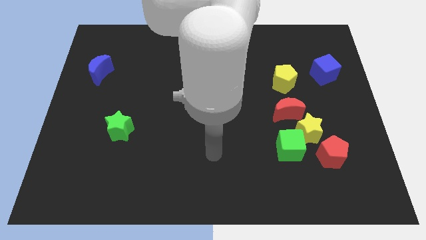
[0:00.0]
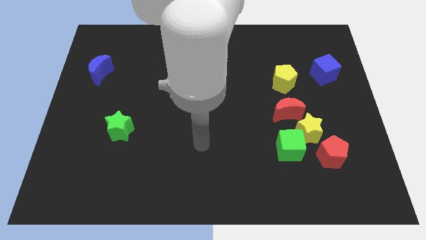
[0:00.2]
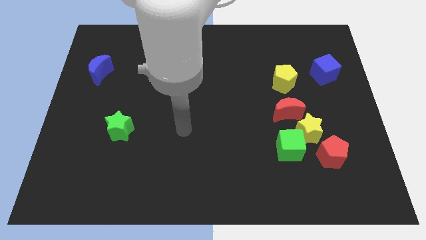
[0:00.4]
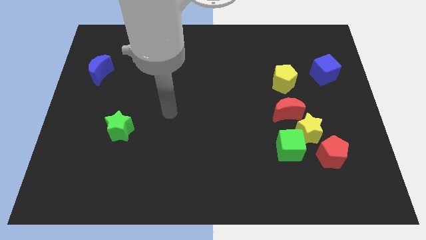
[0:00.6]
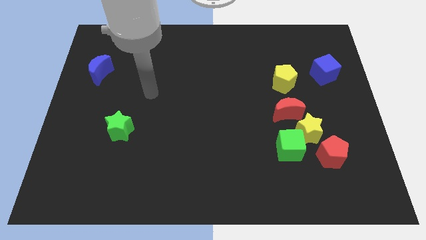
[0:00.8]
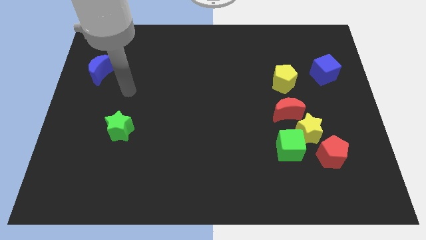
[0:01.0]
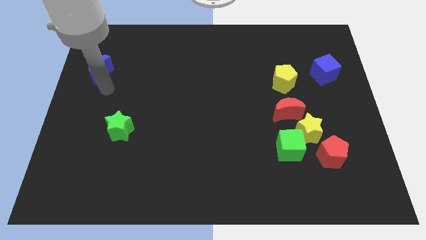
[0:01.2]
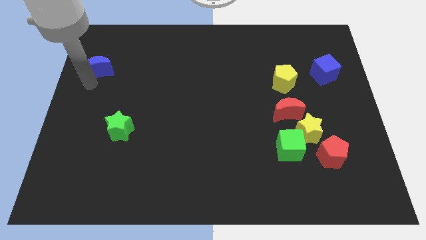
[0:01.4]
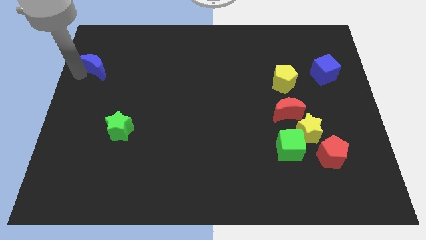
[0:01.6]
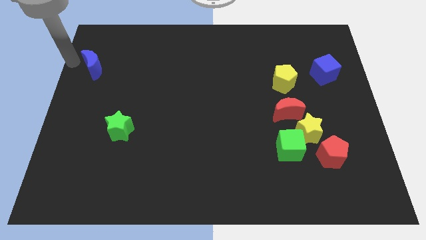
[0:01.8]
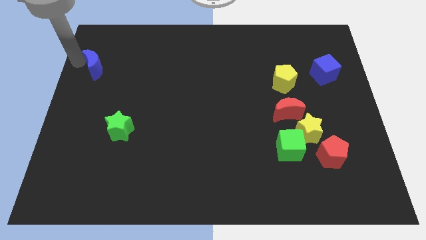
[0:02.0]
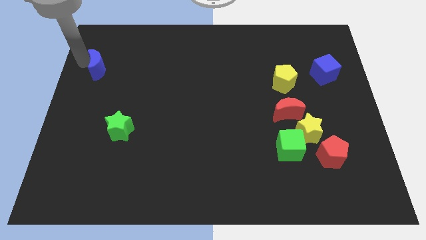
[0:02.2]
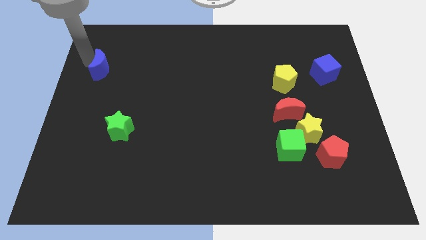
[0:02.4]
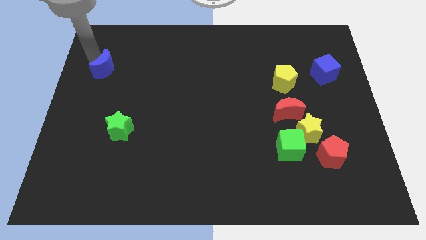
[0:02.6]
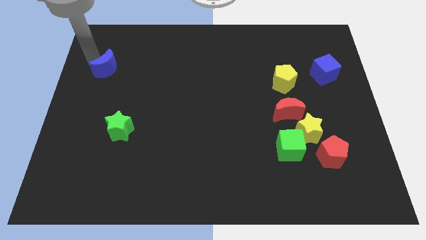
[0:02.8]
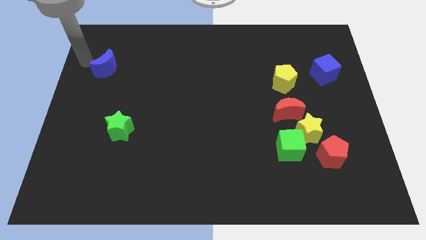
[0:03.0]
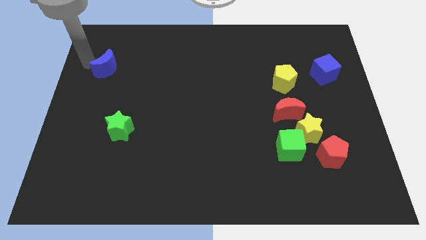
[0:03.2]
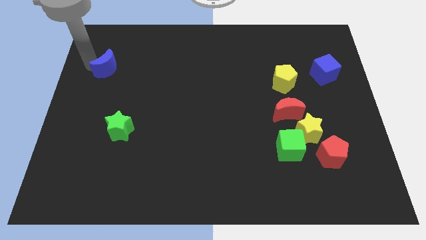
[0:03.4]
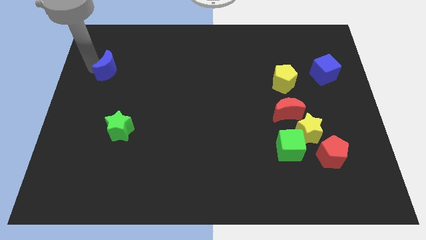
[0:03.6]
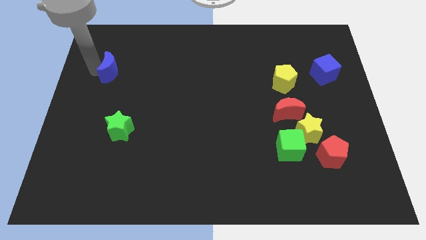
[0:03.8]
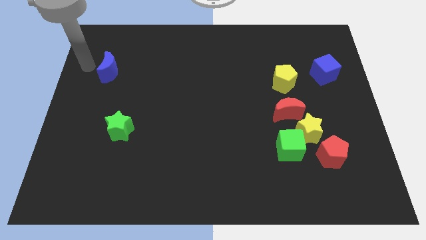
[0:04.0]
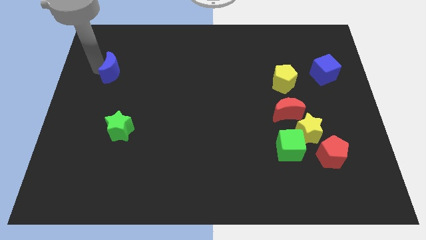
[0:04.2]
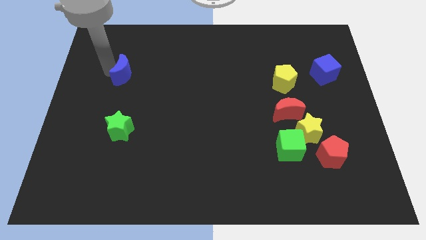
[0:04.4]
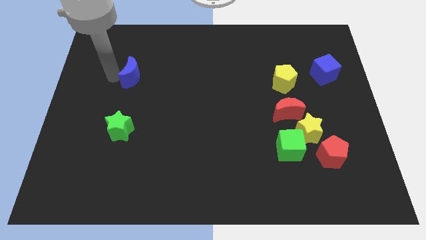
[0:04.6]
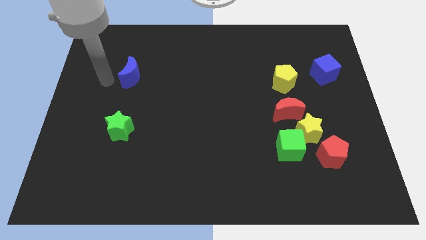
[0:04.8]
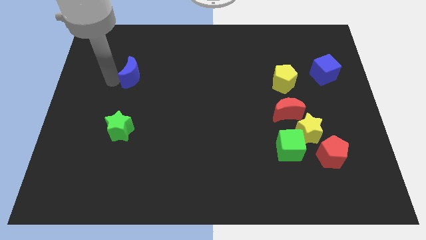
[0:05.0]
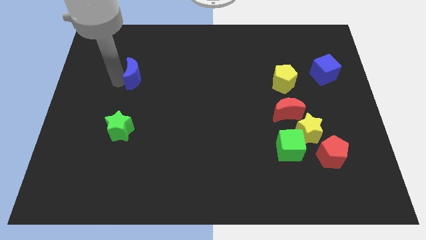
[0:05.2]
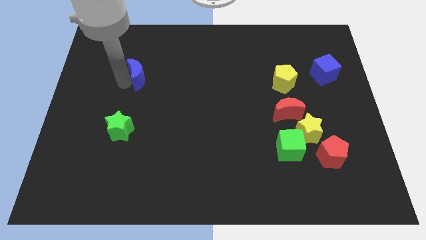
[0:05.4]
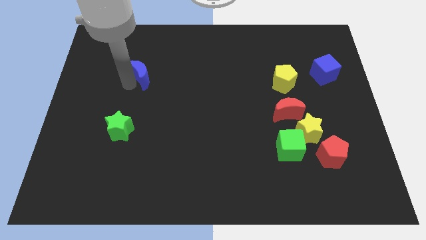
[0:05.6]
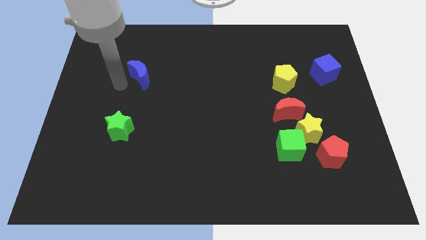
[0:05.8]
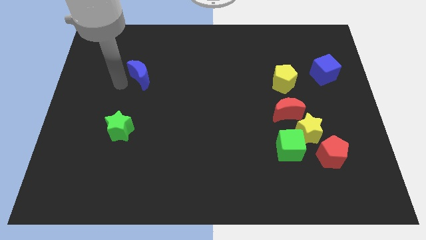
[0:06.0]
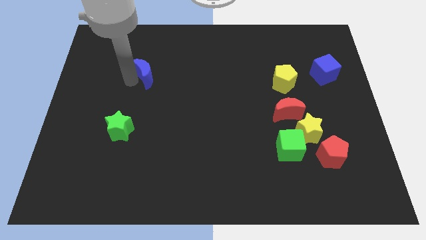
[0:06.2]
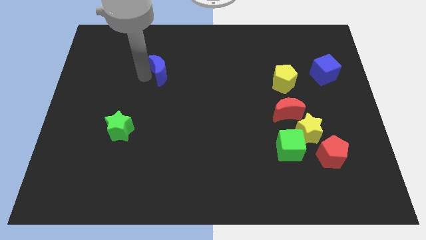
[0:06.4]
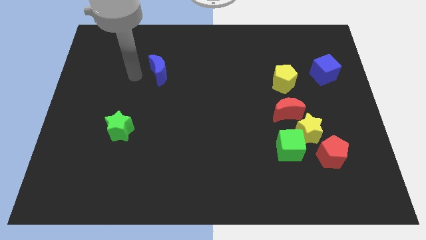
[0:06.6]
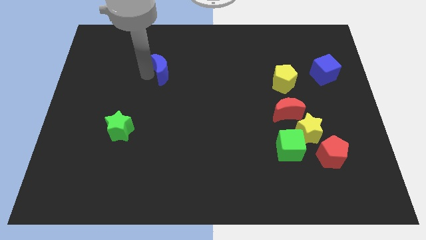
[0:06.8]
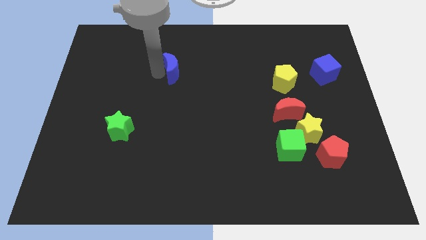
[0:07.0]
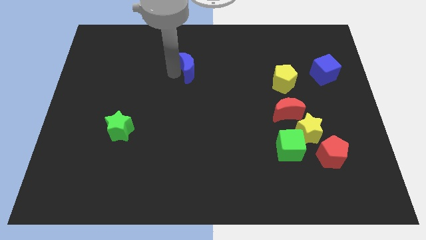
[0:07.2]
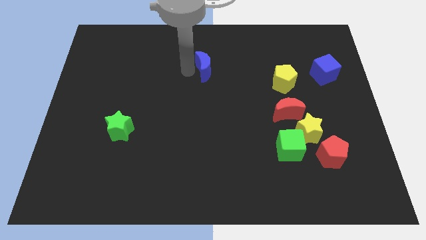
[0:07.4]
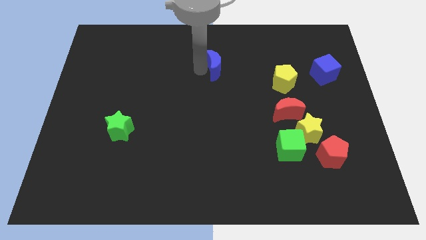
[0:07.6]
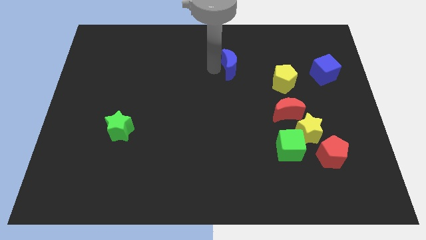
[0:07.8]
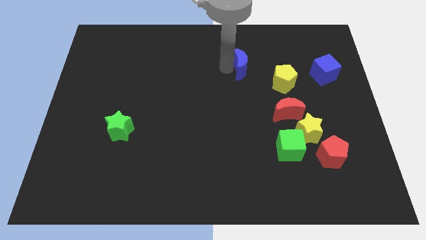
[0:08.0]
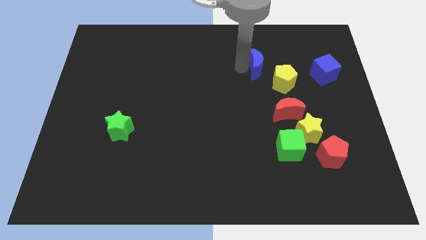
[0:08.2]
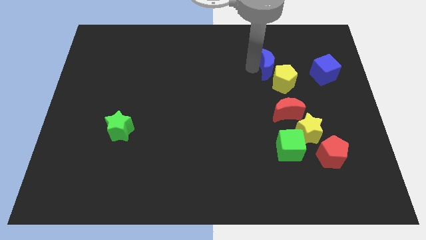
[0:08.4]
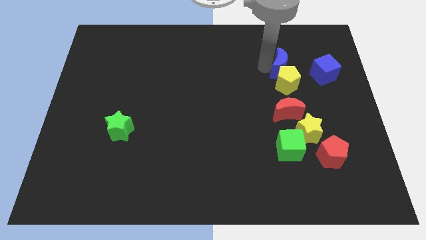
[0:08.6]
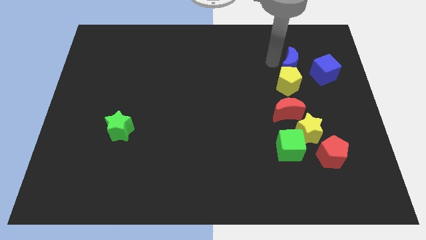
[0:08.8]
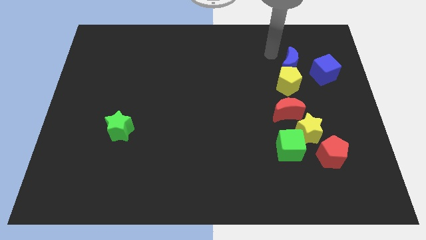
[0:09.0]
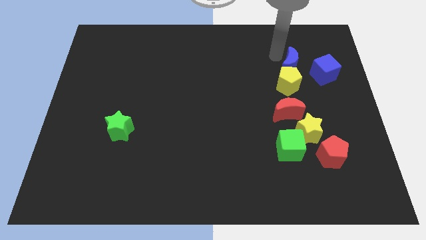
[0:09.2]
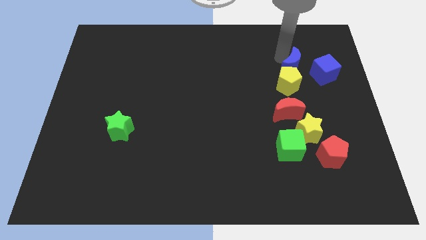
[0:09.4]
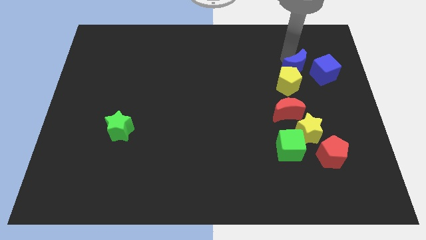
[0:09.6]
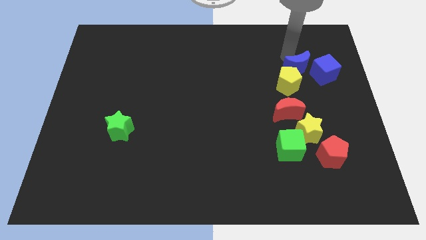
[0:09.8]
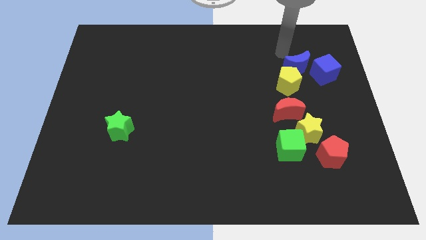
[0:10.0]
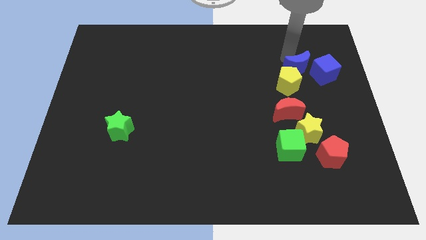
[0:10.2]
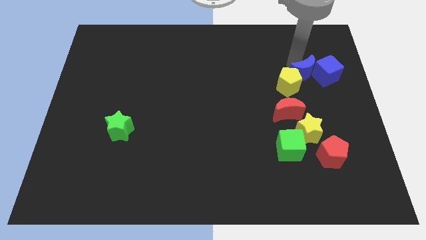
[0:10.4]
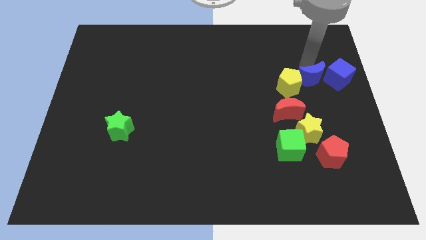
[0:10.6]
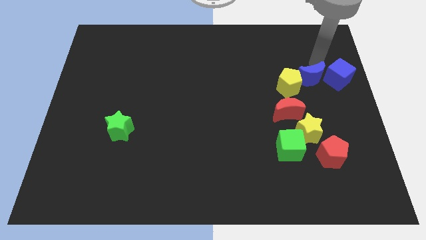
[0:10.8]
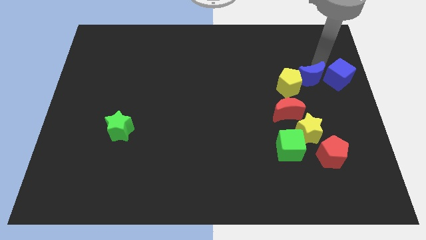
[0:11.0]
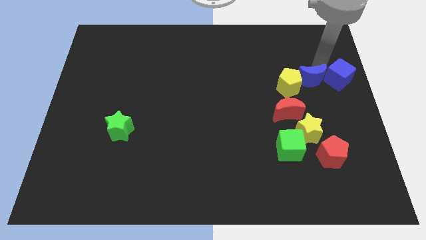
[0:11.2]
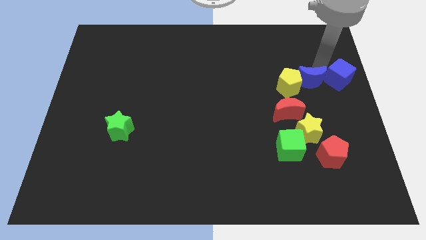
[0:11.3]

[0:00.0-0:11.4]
push the blue moon to the top side of the yellow star

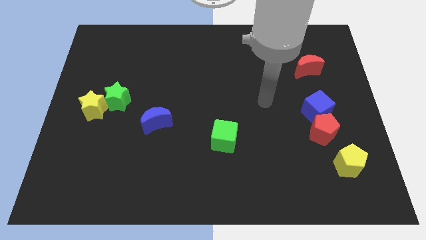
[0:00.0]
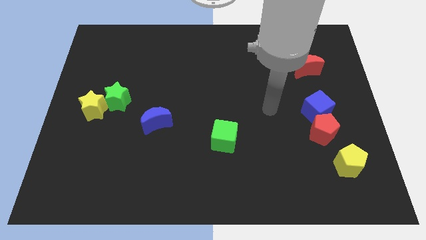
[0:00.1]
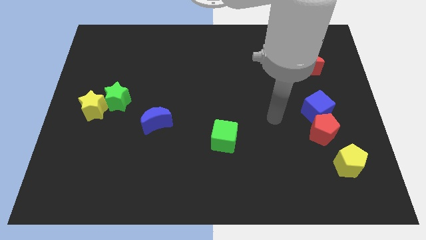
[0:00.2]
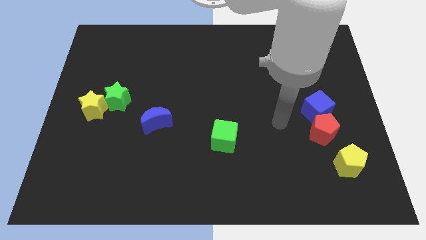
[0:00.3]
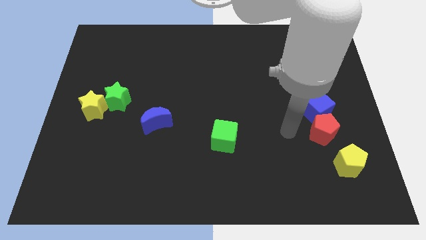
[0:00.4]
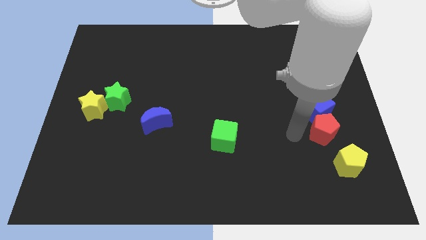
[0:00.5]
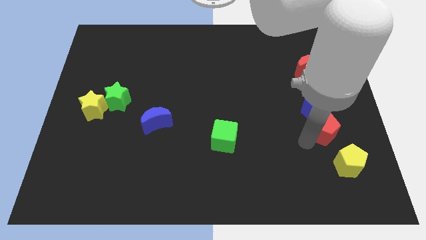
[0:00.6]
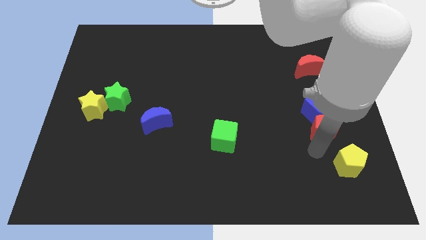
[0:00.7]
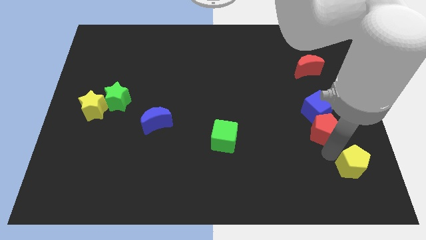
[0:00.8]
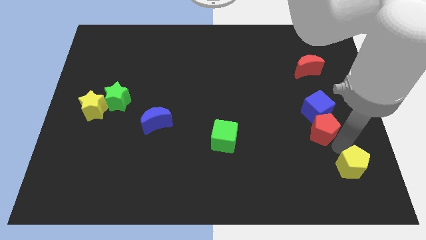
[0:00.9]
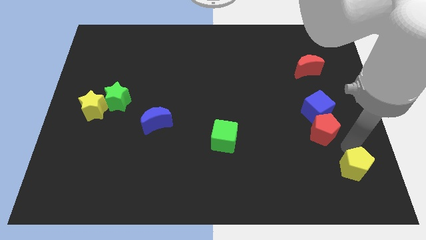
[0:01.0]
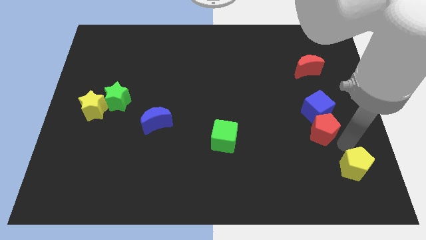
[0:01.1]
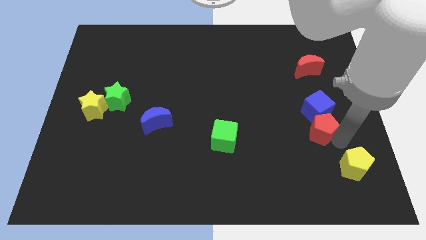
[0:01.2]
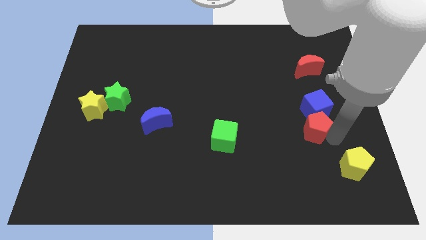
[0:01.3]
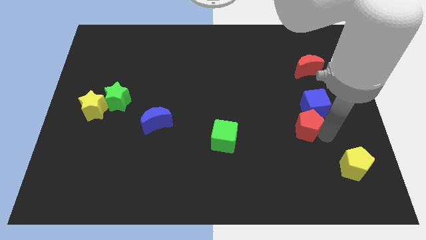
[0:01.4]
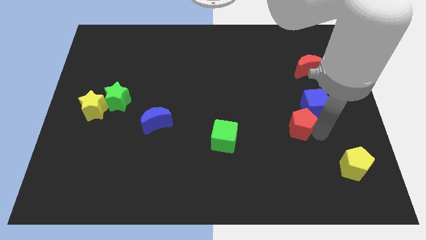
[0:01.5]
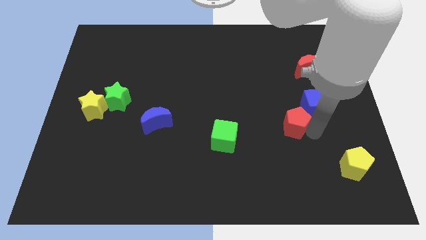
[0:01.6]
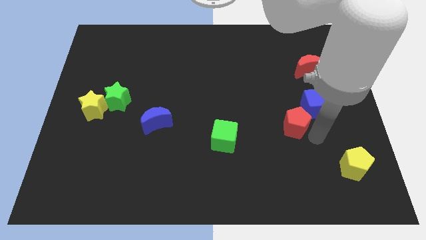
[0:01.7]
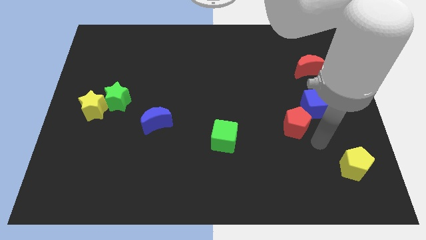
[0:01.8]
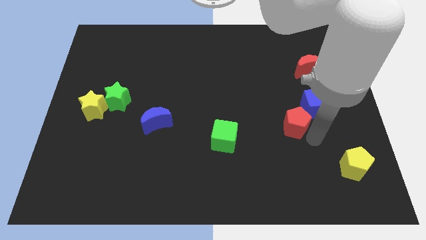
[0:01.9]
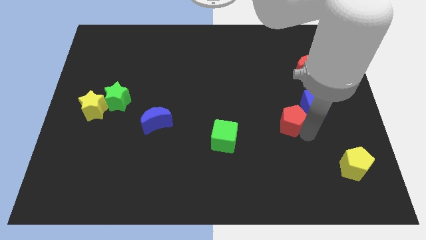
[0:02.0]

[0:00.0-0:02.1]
slide the red pentagon to the left side of the blue cube
